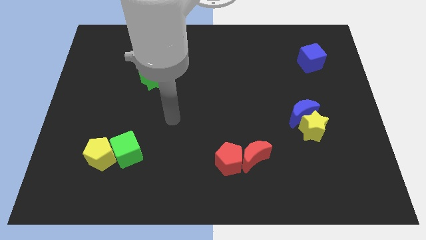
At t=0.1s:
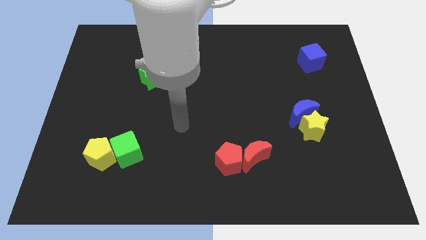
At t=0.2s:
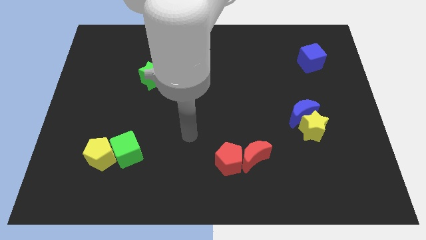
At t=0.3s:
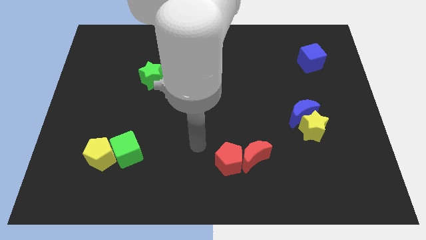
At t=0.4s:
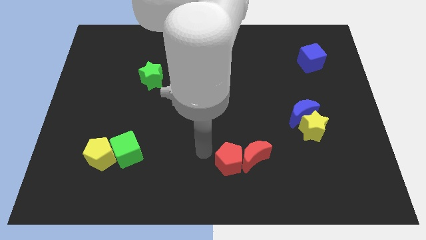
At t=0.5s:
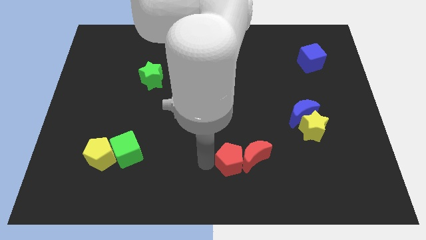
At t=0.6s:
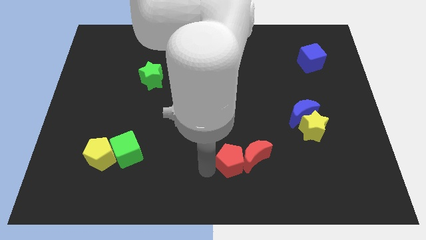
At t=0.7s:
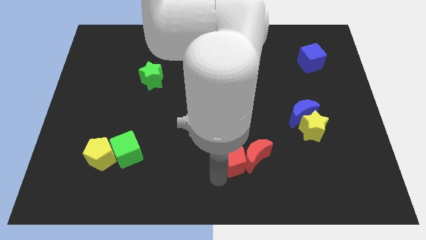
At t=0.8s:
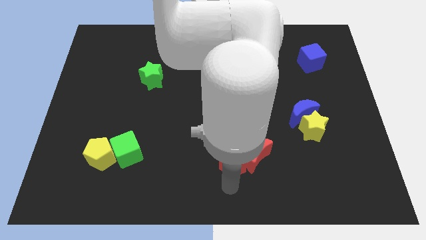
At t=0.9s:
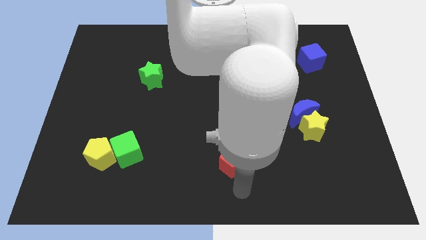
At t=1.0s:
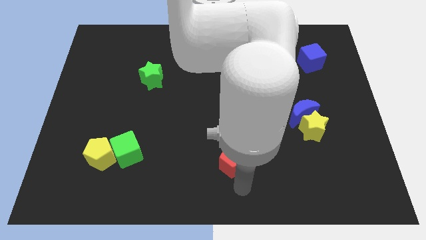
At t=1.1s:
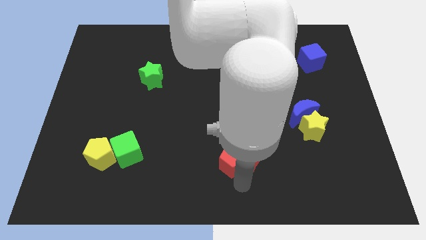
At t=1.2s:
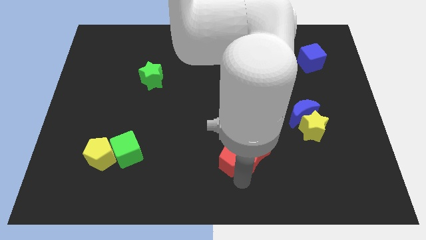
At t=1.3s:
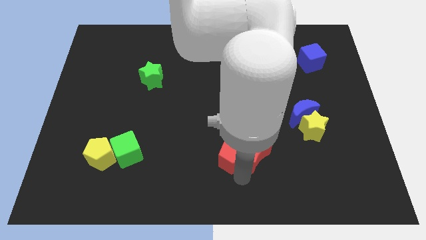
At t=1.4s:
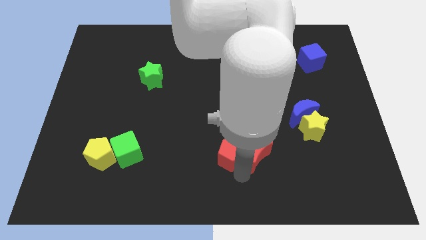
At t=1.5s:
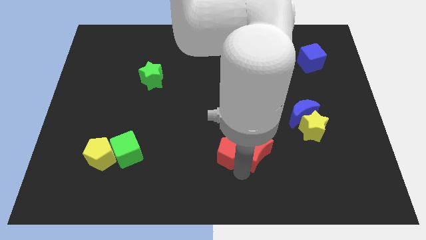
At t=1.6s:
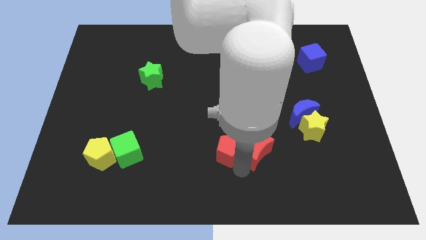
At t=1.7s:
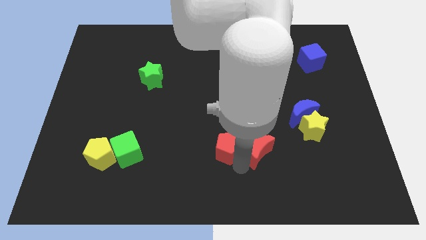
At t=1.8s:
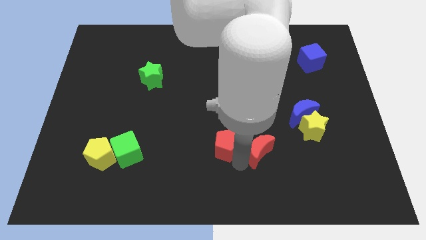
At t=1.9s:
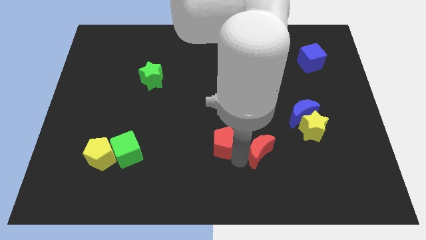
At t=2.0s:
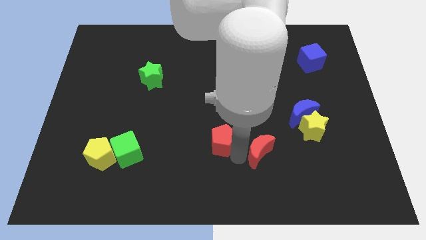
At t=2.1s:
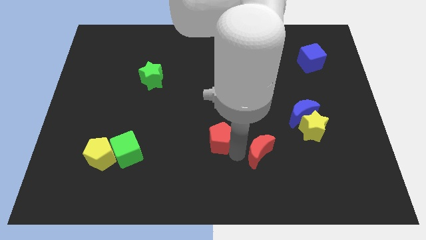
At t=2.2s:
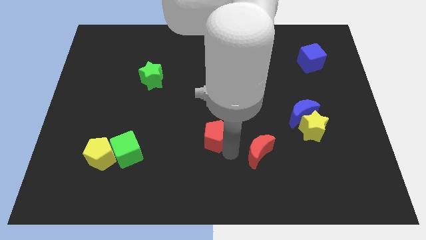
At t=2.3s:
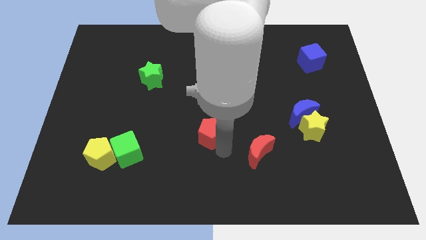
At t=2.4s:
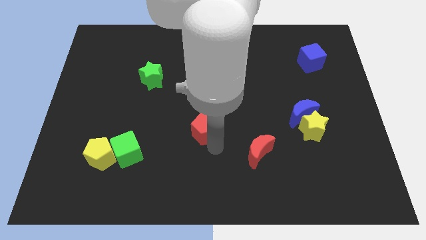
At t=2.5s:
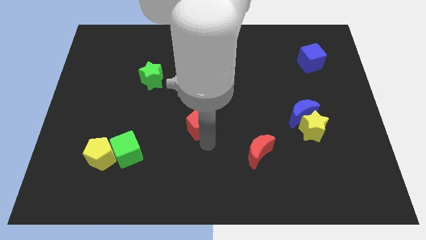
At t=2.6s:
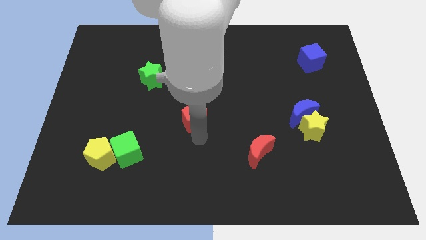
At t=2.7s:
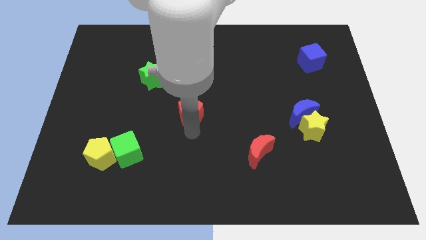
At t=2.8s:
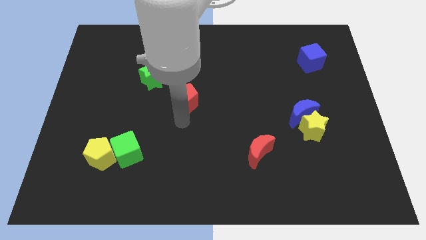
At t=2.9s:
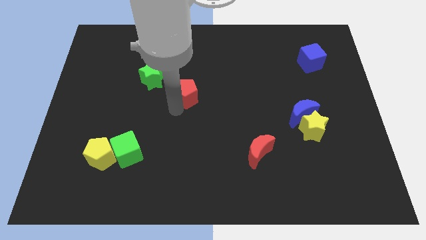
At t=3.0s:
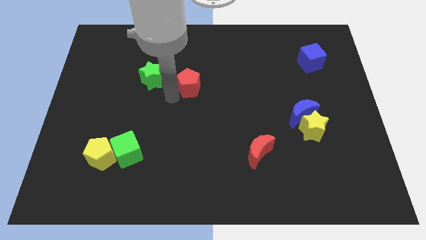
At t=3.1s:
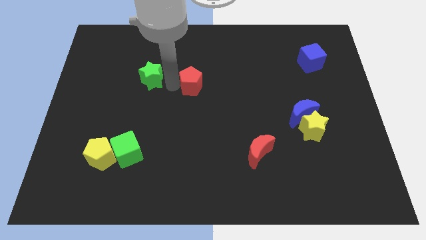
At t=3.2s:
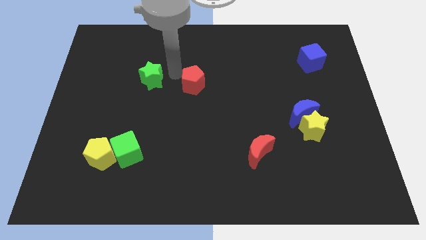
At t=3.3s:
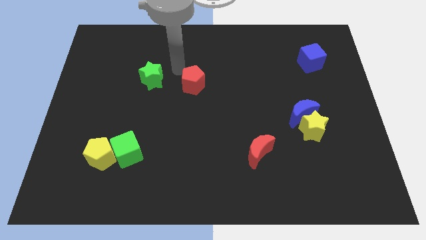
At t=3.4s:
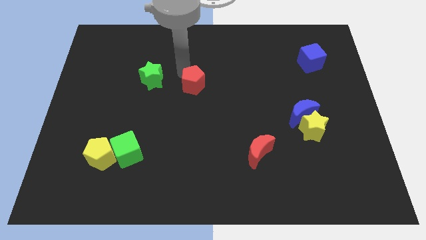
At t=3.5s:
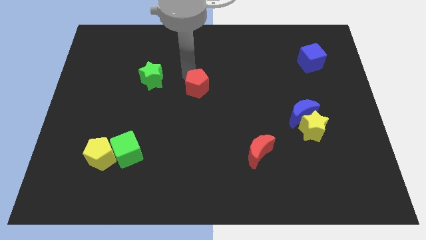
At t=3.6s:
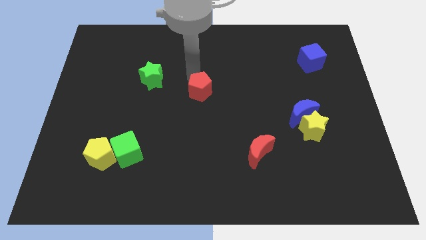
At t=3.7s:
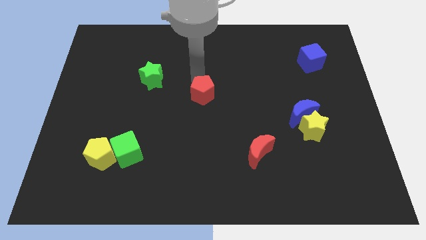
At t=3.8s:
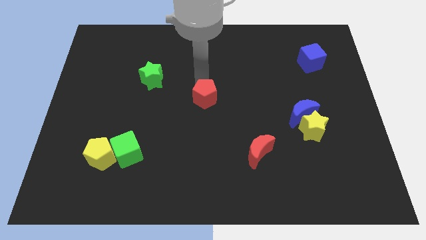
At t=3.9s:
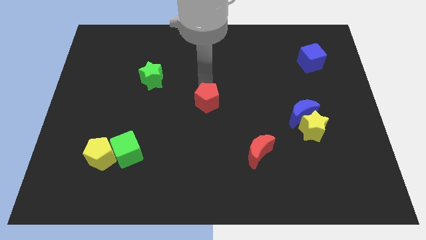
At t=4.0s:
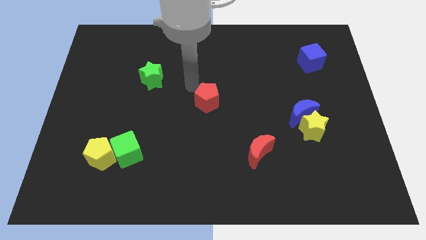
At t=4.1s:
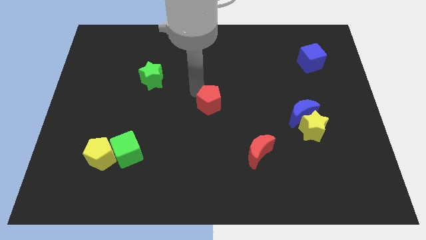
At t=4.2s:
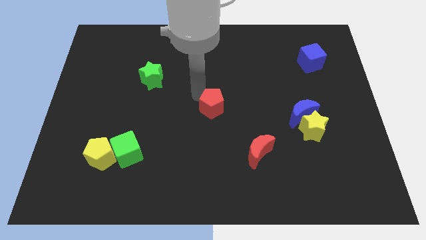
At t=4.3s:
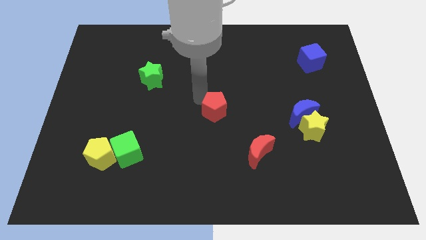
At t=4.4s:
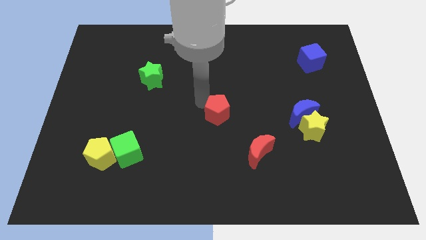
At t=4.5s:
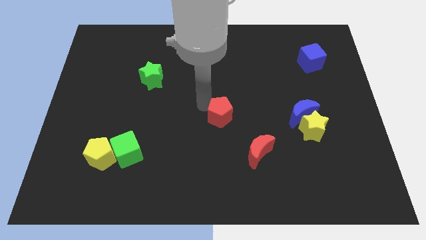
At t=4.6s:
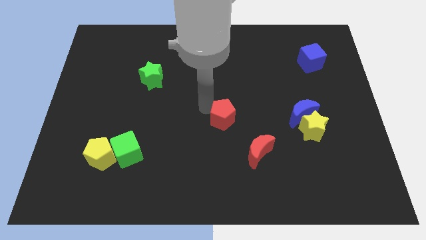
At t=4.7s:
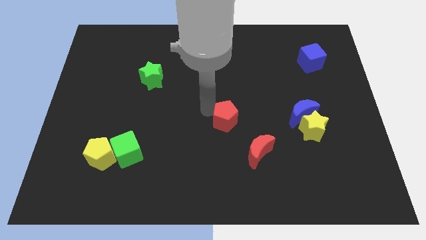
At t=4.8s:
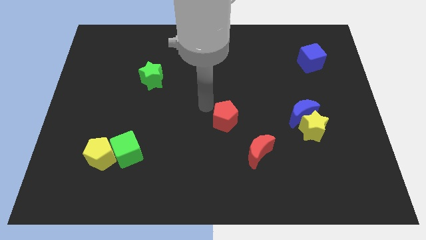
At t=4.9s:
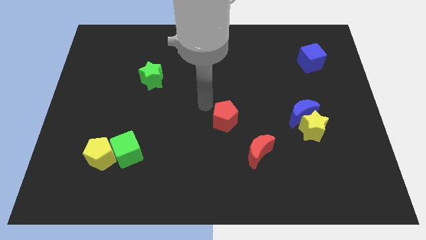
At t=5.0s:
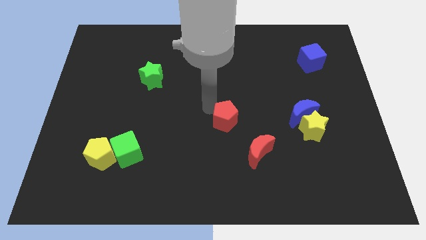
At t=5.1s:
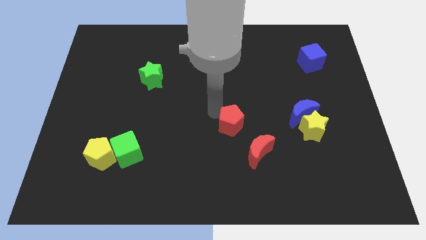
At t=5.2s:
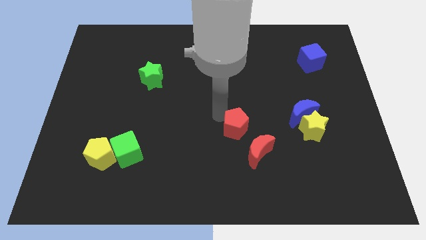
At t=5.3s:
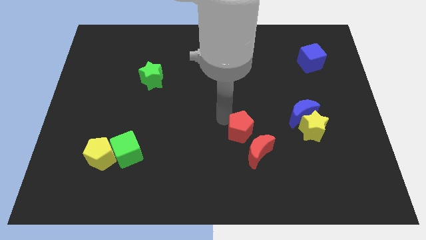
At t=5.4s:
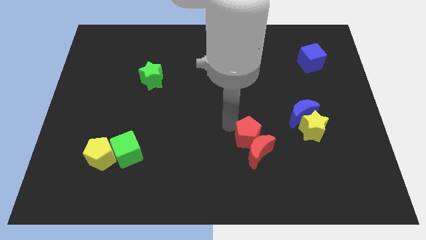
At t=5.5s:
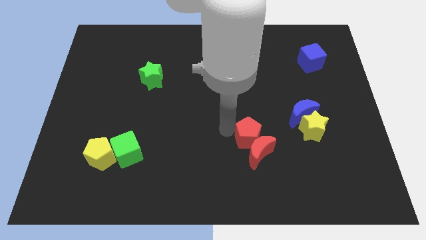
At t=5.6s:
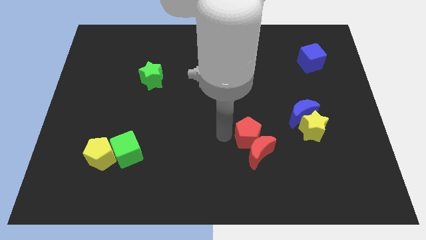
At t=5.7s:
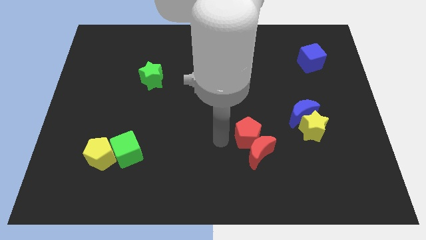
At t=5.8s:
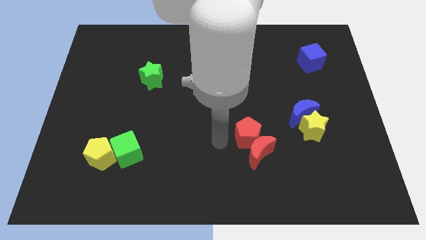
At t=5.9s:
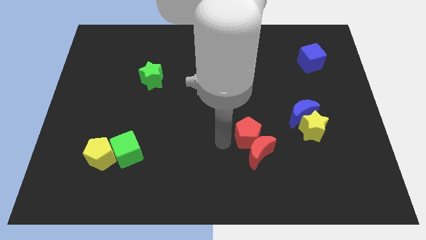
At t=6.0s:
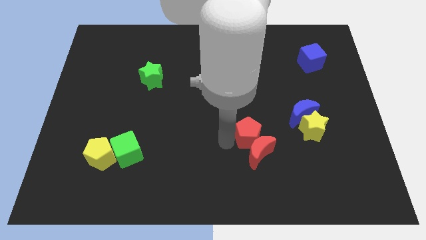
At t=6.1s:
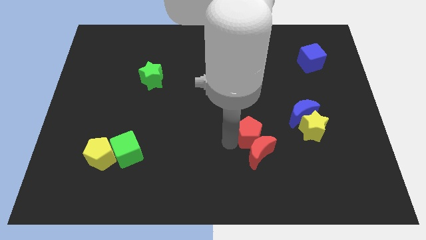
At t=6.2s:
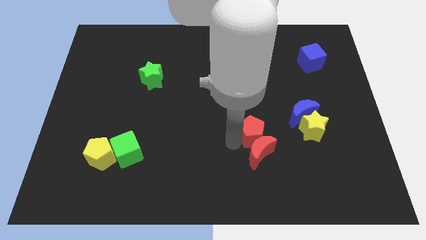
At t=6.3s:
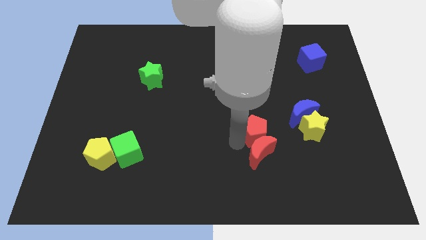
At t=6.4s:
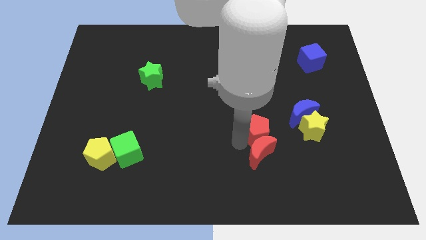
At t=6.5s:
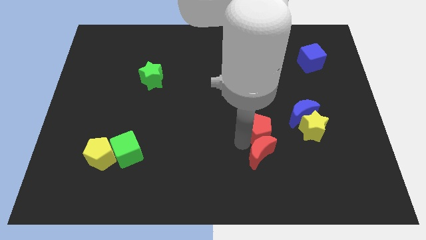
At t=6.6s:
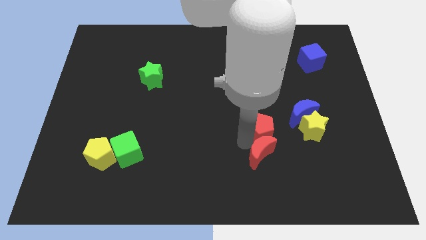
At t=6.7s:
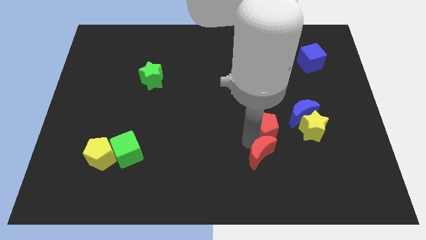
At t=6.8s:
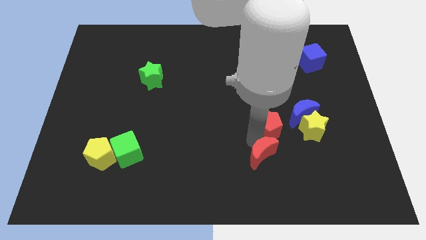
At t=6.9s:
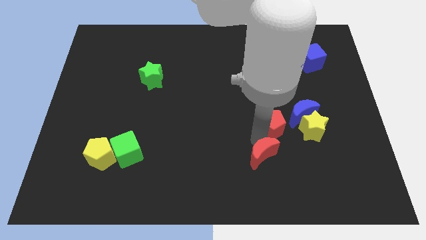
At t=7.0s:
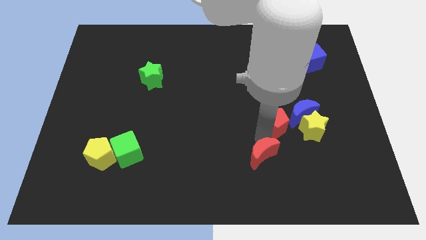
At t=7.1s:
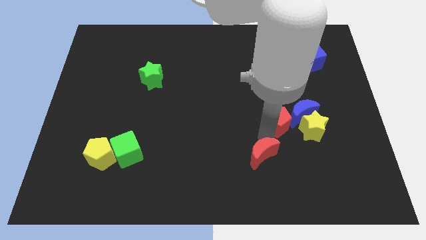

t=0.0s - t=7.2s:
push the red pentagon close to the blue moon

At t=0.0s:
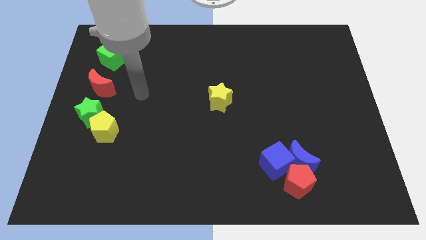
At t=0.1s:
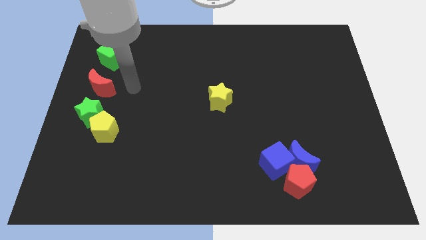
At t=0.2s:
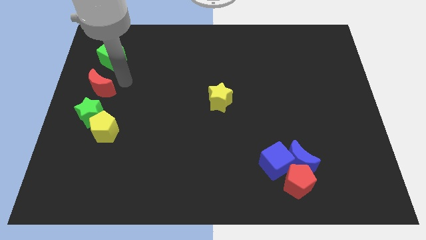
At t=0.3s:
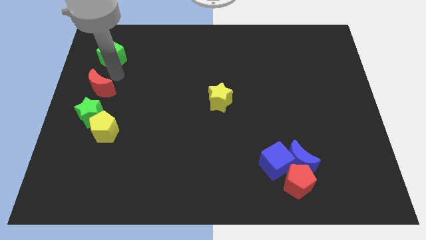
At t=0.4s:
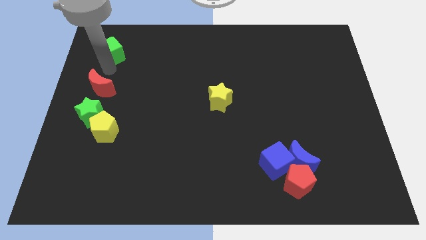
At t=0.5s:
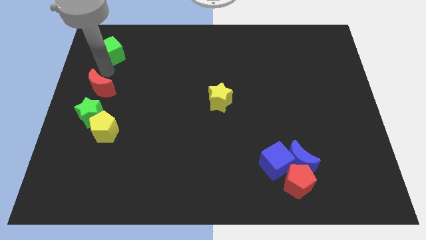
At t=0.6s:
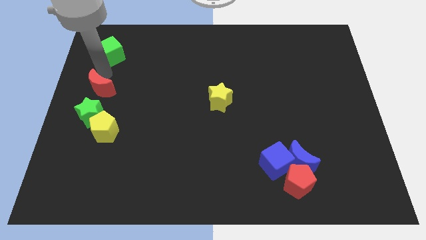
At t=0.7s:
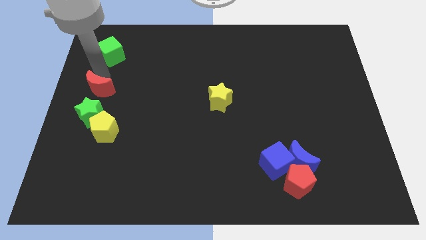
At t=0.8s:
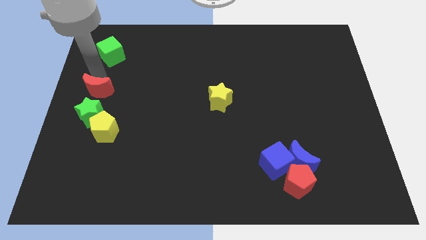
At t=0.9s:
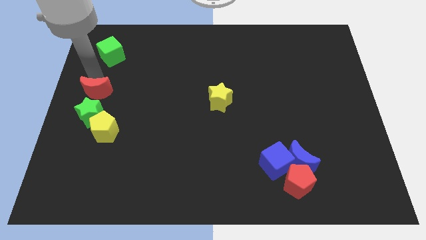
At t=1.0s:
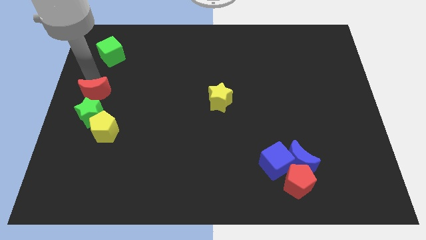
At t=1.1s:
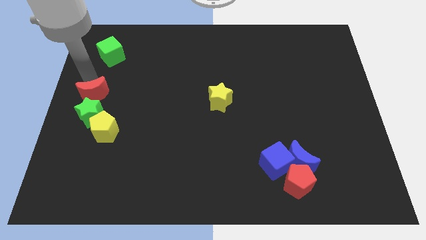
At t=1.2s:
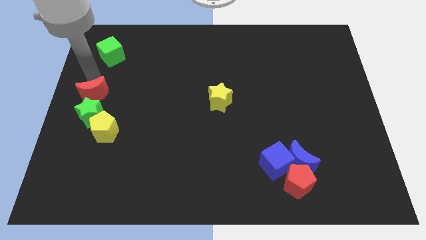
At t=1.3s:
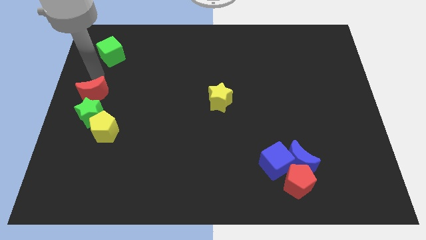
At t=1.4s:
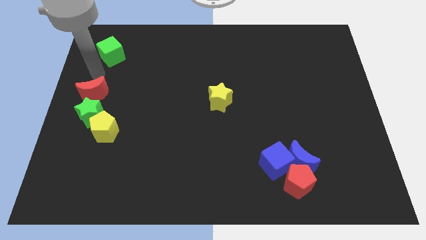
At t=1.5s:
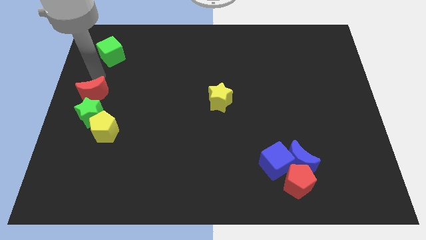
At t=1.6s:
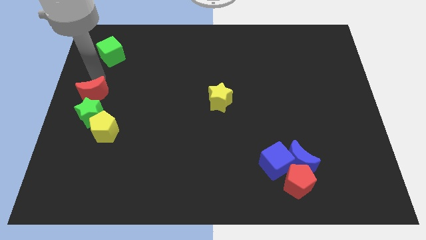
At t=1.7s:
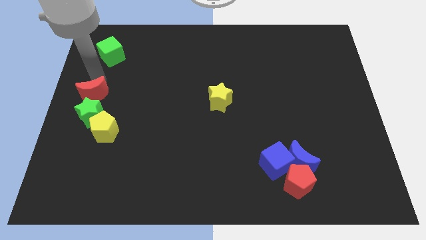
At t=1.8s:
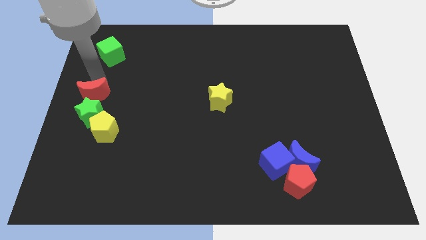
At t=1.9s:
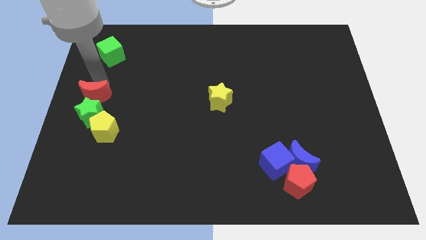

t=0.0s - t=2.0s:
slide the red moon to the green star
